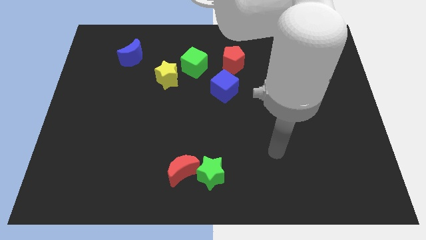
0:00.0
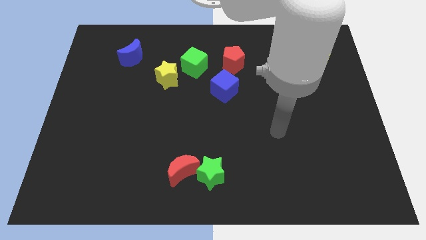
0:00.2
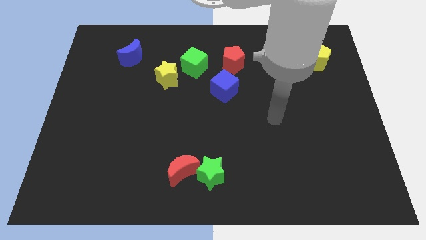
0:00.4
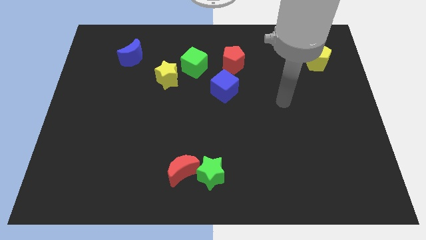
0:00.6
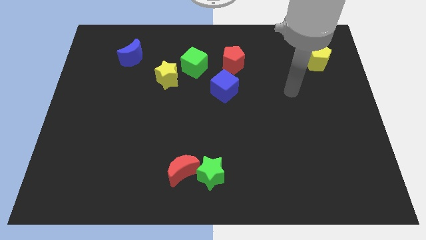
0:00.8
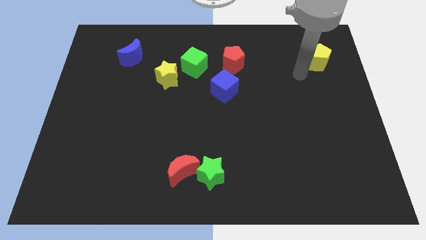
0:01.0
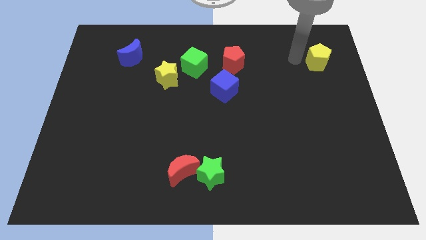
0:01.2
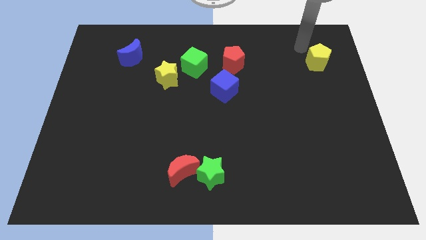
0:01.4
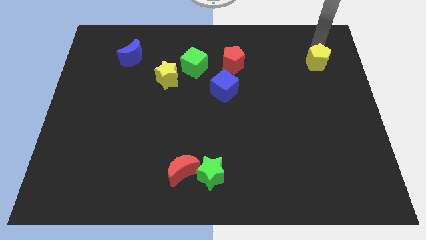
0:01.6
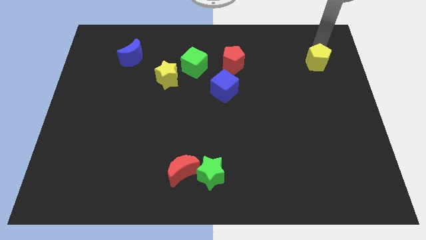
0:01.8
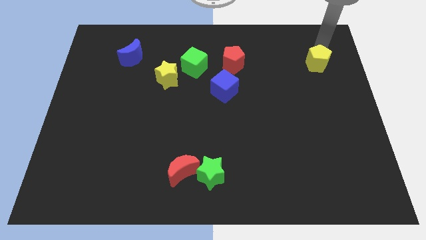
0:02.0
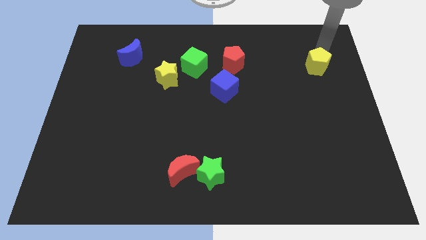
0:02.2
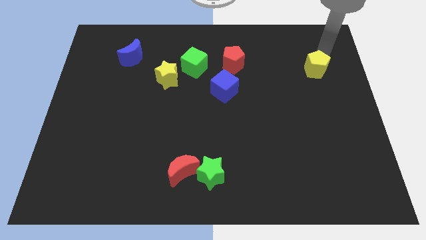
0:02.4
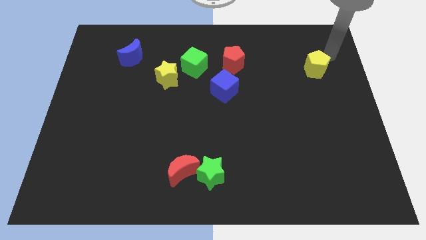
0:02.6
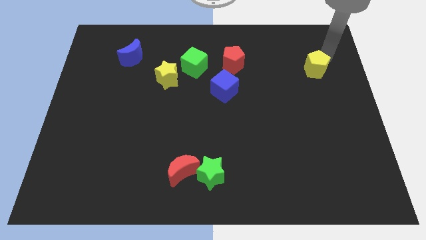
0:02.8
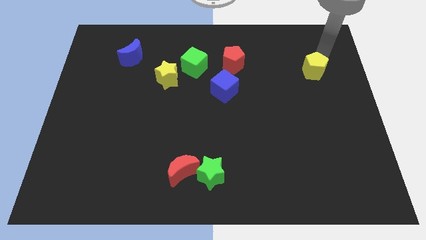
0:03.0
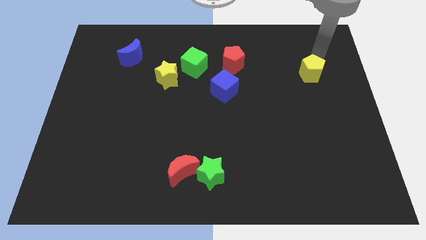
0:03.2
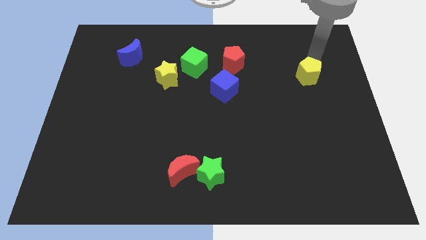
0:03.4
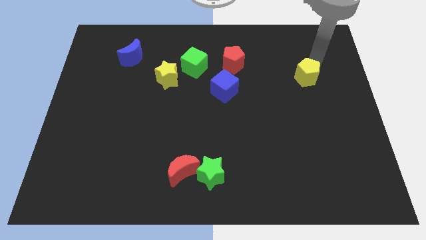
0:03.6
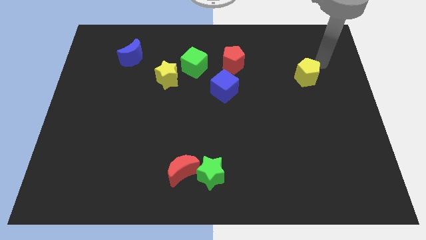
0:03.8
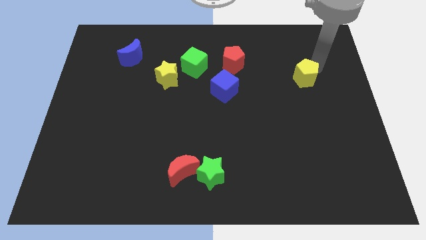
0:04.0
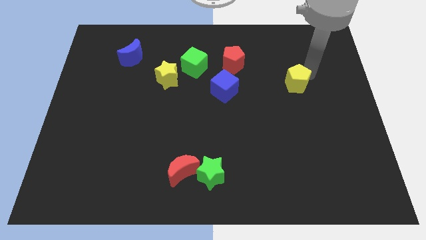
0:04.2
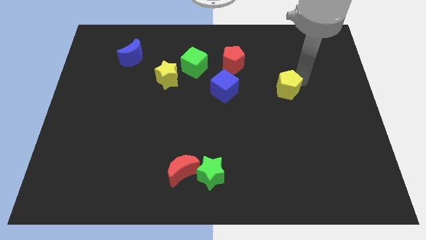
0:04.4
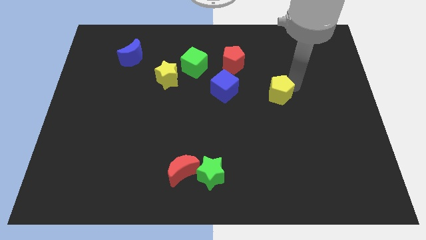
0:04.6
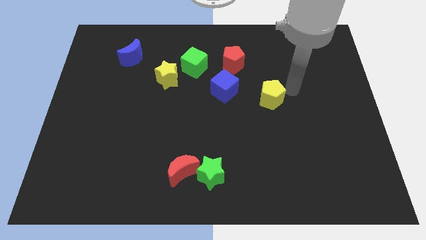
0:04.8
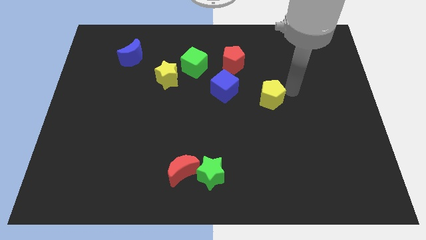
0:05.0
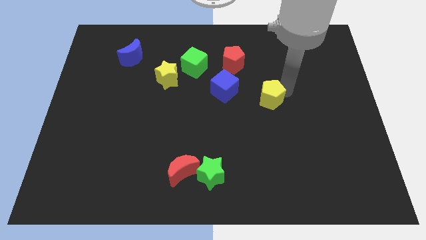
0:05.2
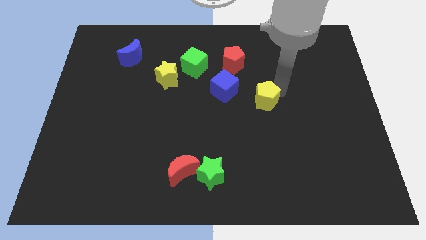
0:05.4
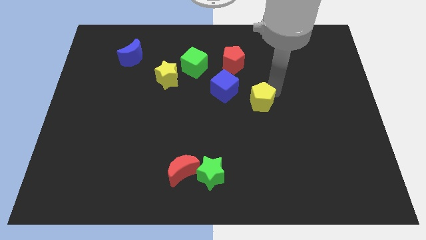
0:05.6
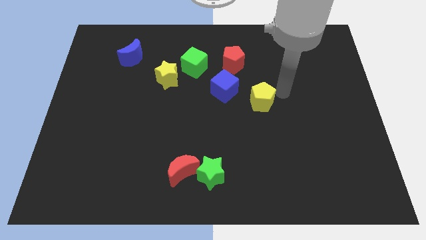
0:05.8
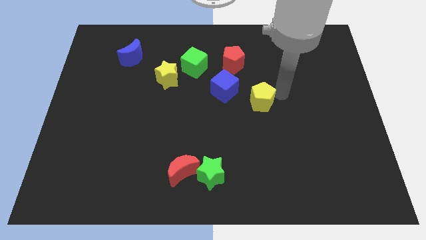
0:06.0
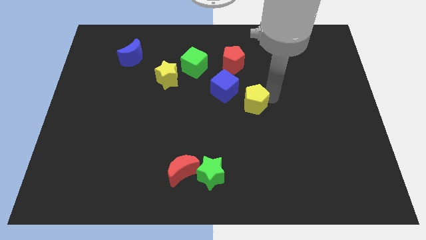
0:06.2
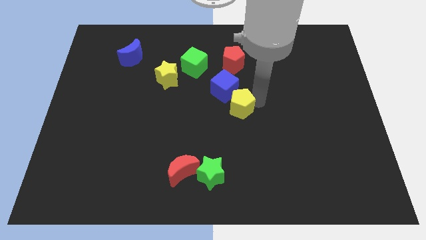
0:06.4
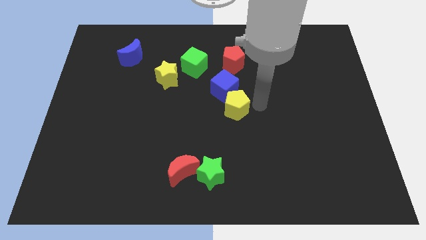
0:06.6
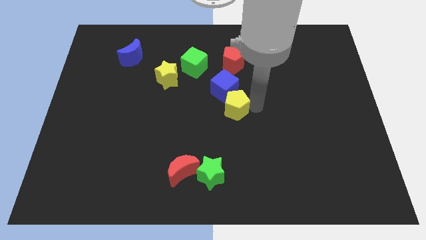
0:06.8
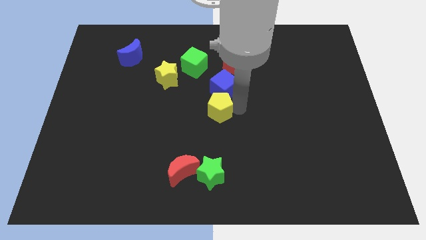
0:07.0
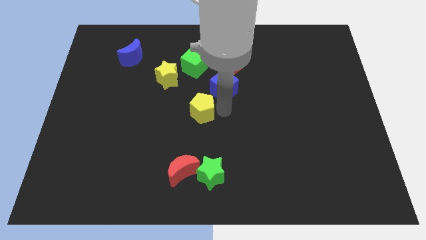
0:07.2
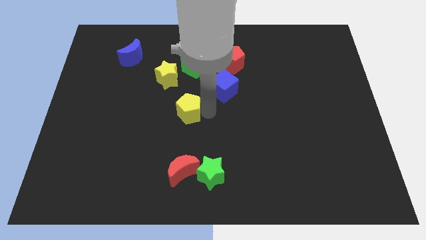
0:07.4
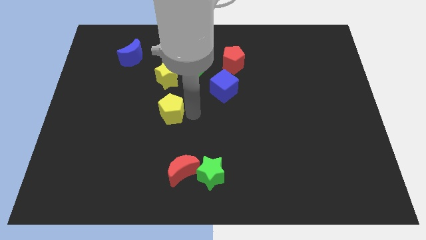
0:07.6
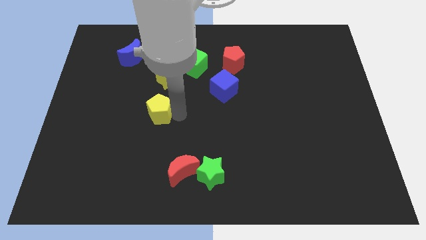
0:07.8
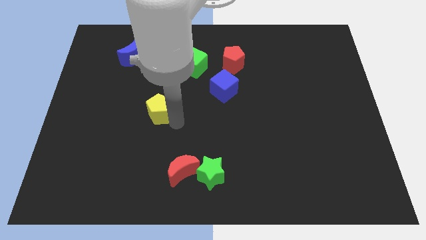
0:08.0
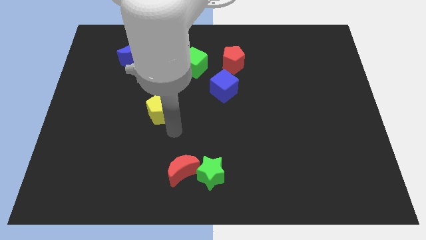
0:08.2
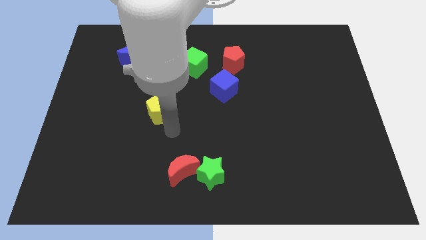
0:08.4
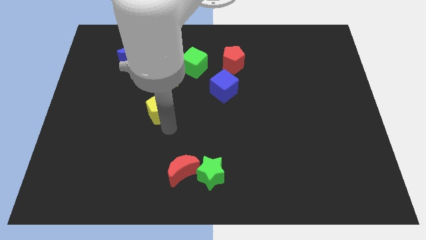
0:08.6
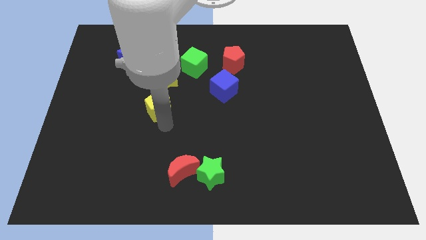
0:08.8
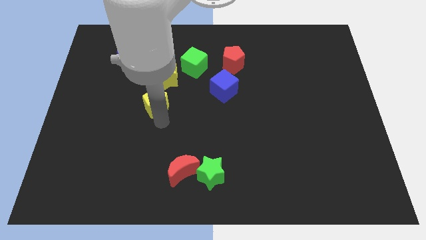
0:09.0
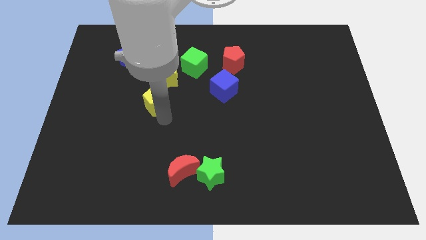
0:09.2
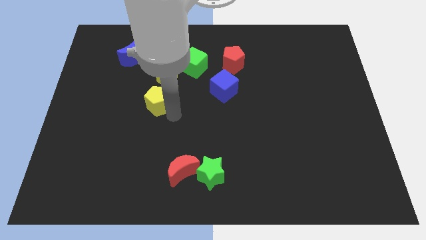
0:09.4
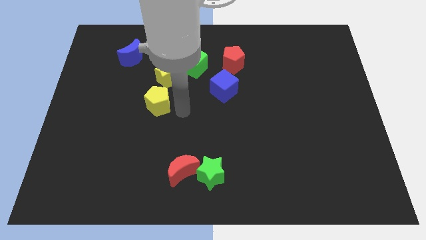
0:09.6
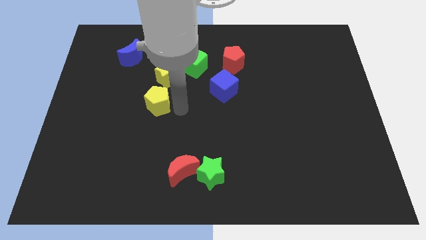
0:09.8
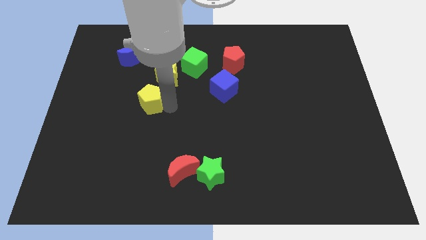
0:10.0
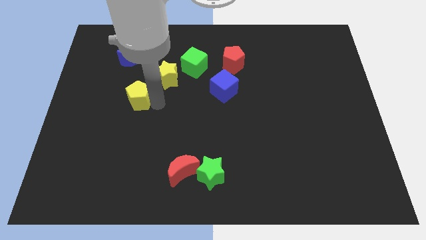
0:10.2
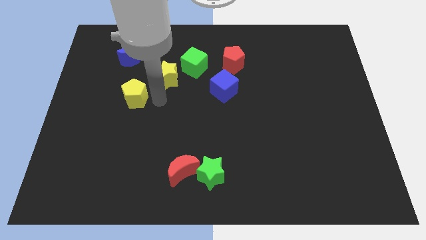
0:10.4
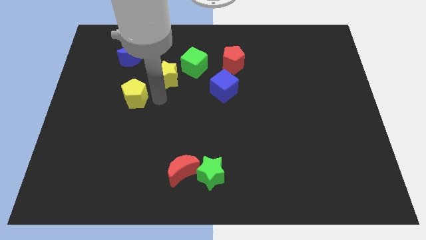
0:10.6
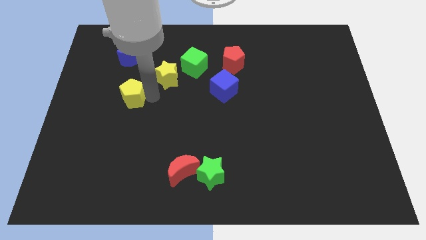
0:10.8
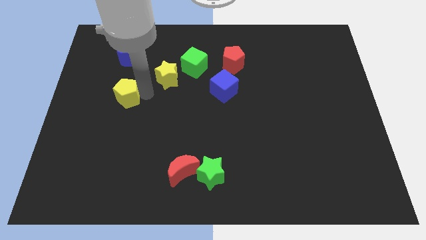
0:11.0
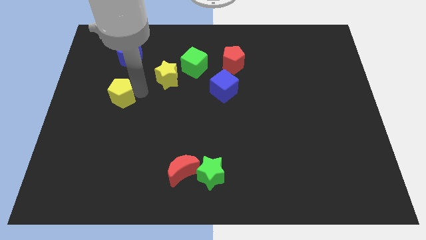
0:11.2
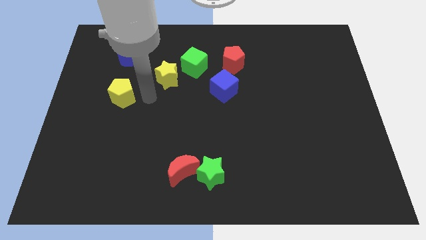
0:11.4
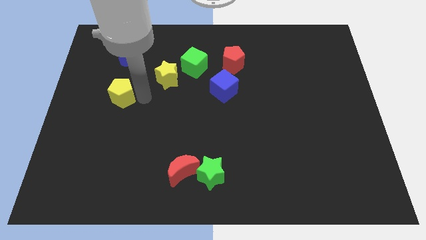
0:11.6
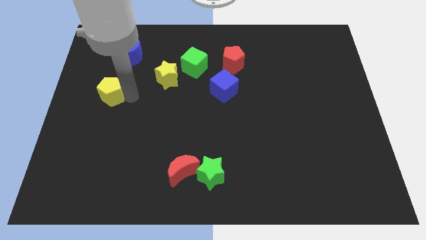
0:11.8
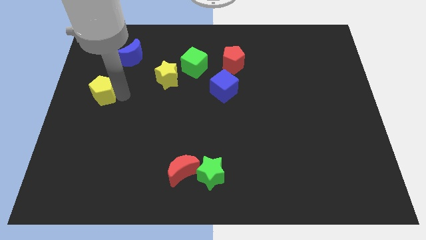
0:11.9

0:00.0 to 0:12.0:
move the yellow pentagon to the left side

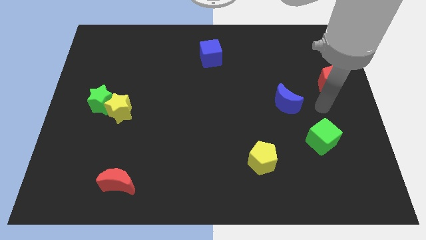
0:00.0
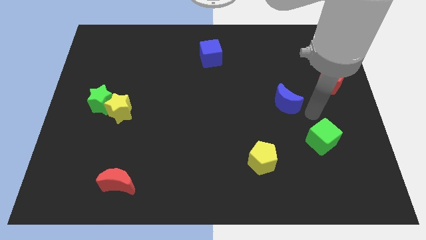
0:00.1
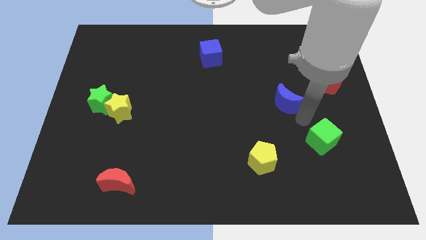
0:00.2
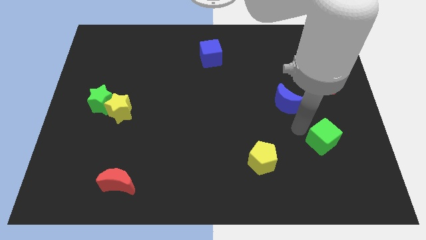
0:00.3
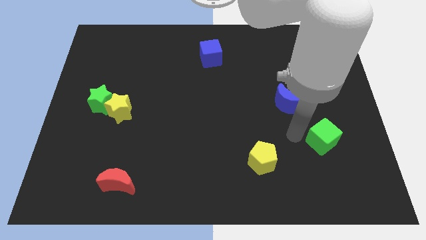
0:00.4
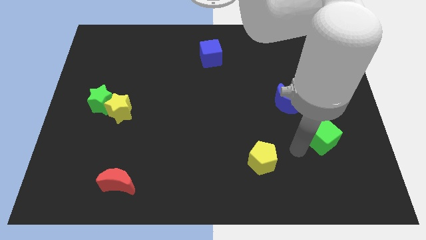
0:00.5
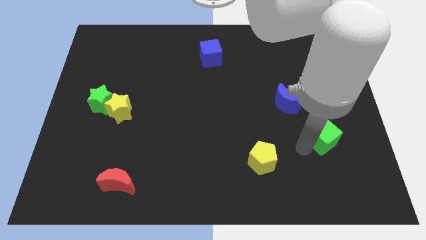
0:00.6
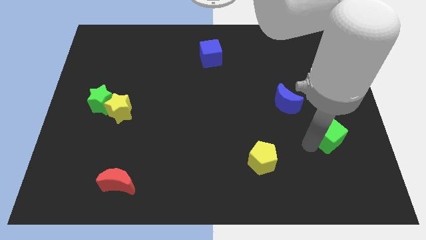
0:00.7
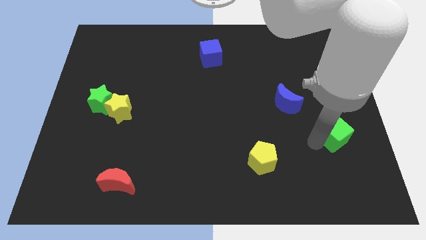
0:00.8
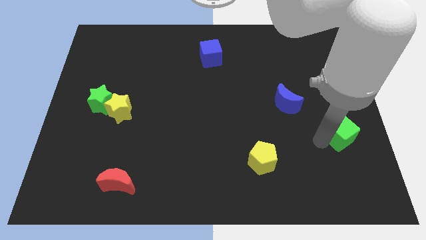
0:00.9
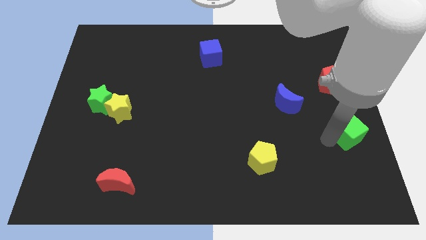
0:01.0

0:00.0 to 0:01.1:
put the green cube to the right side of the board
